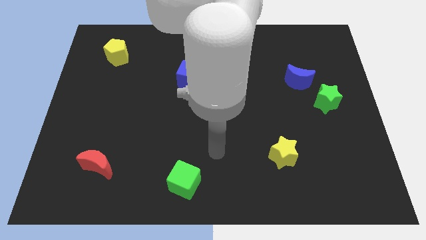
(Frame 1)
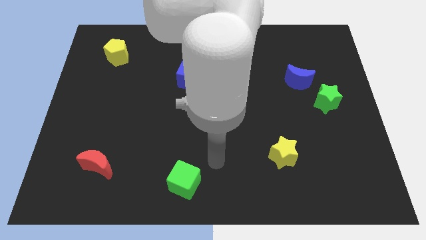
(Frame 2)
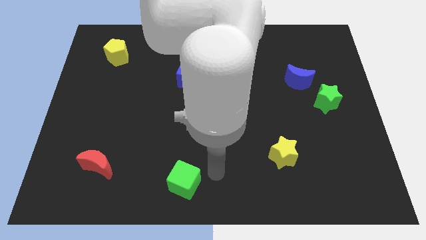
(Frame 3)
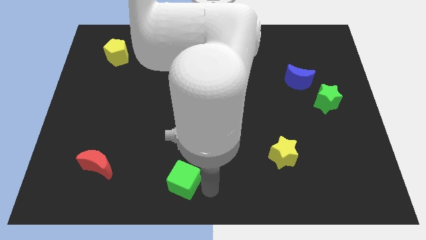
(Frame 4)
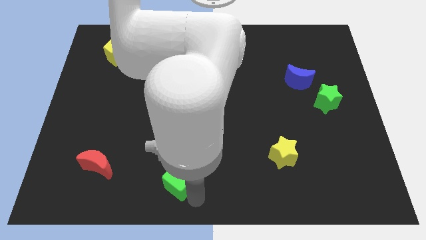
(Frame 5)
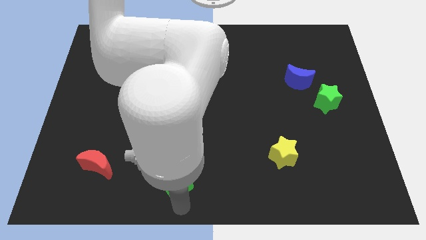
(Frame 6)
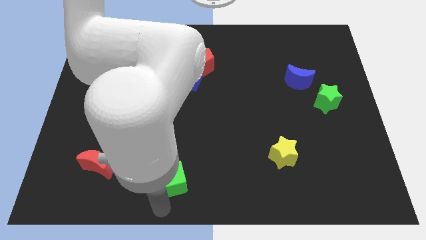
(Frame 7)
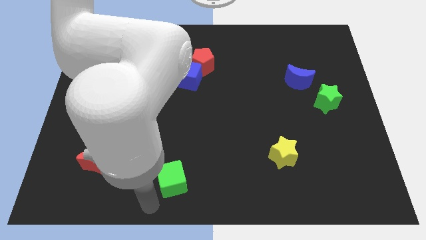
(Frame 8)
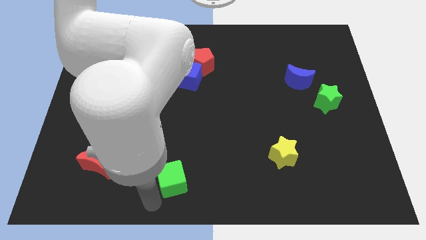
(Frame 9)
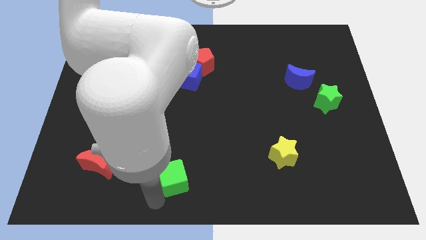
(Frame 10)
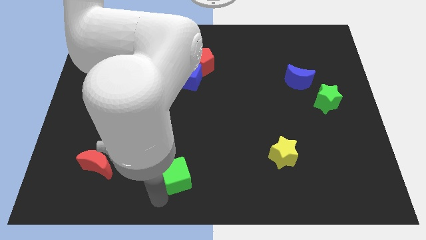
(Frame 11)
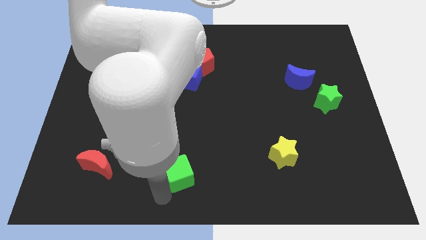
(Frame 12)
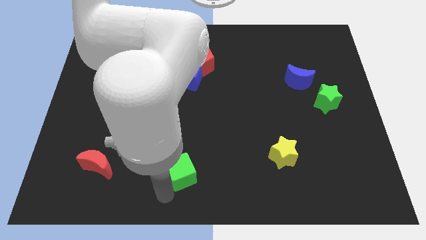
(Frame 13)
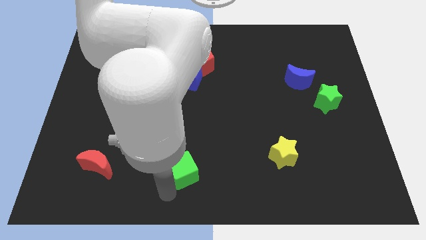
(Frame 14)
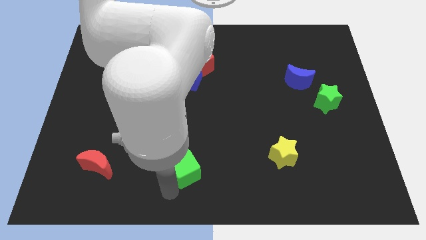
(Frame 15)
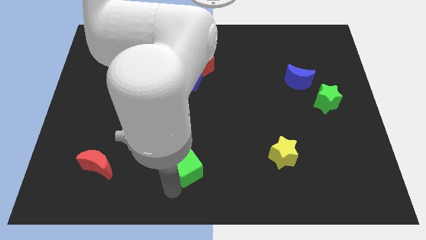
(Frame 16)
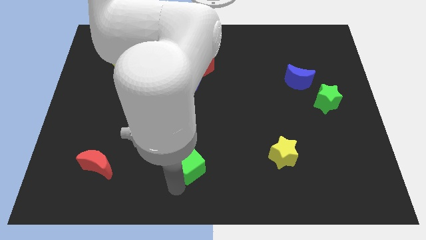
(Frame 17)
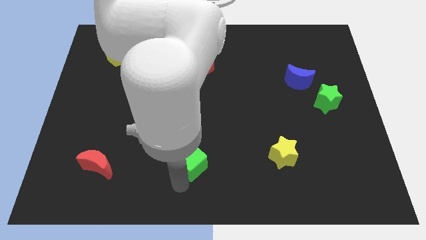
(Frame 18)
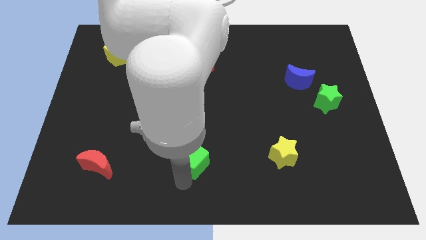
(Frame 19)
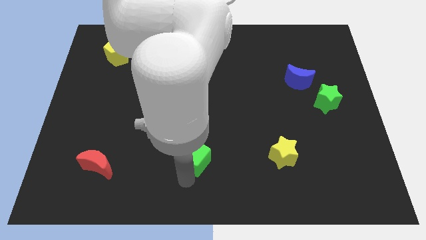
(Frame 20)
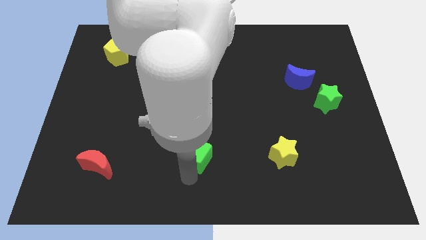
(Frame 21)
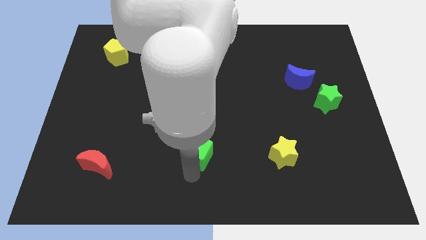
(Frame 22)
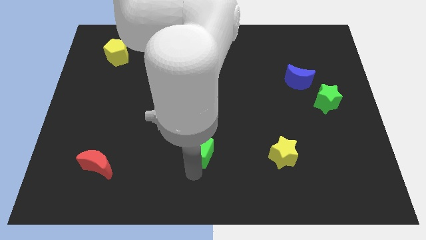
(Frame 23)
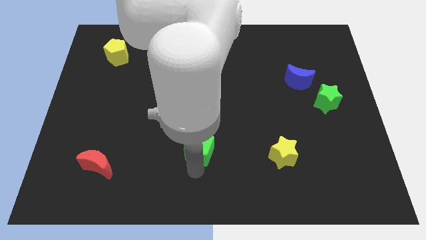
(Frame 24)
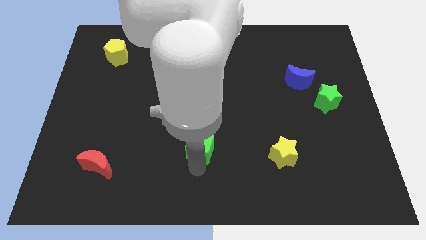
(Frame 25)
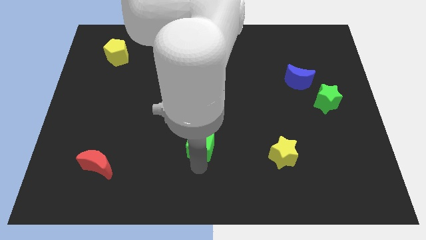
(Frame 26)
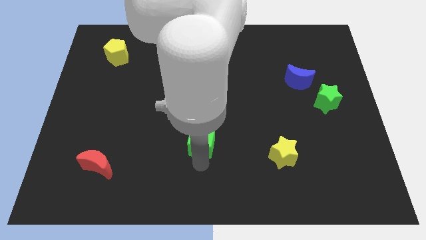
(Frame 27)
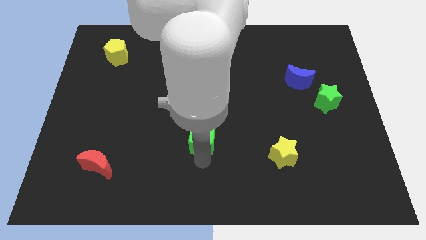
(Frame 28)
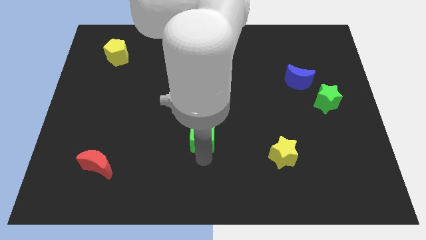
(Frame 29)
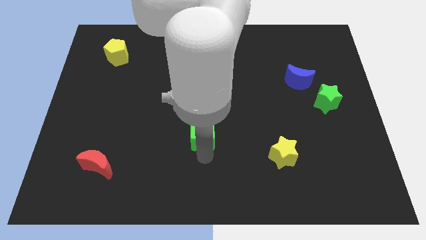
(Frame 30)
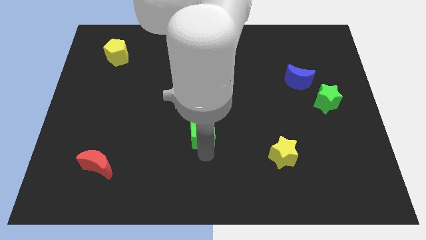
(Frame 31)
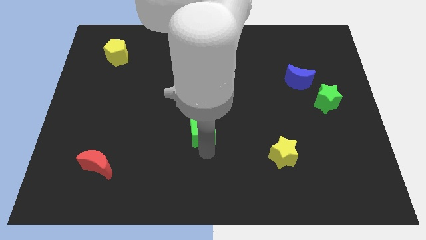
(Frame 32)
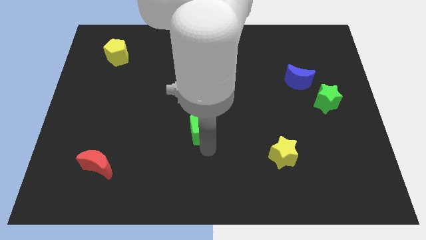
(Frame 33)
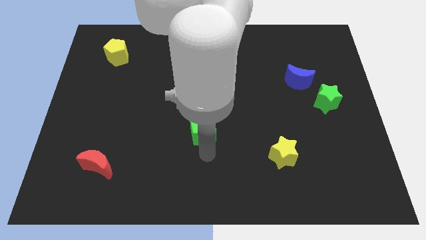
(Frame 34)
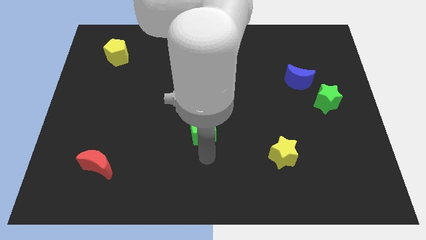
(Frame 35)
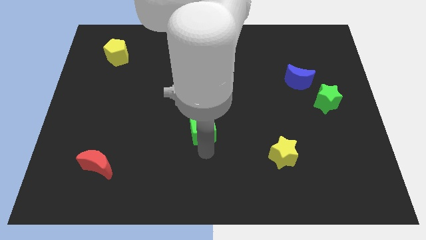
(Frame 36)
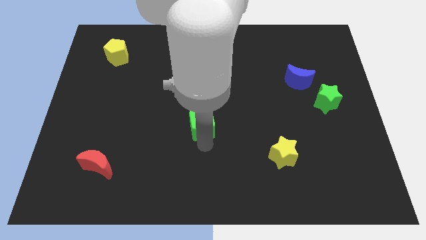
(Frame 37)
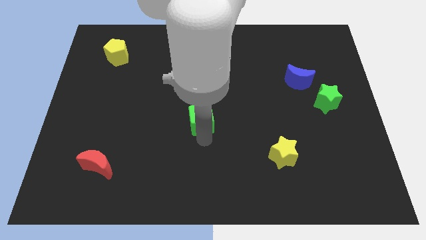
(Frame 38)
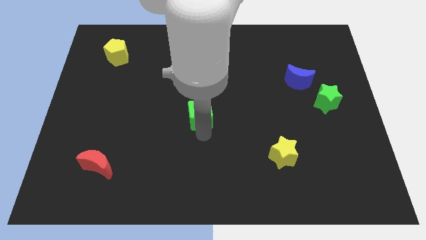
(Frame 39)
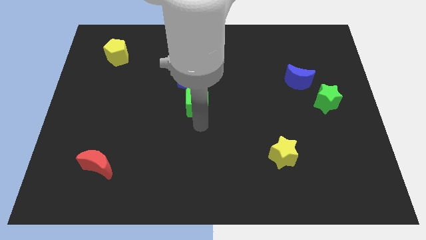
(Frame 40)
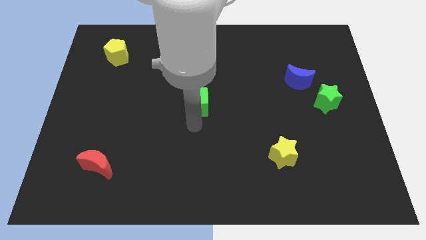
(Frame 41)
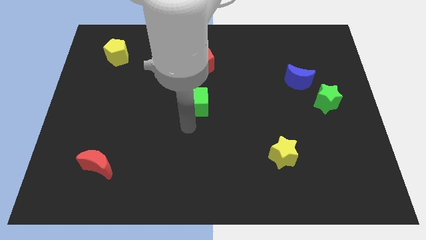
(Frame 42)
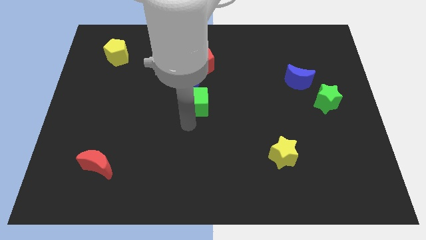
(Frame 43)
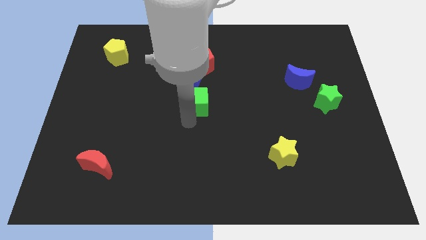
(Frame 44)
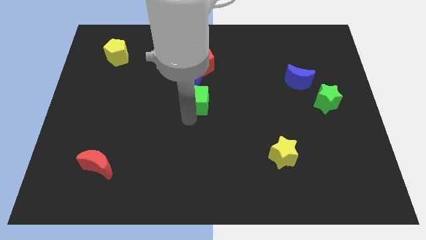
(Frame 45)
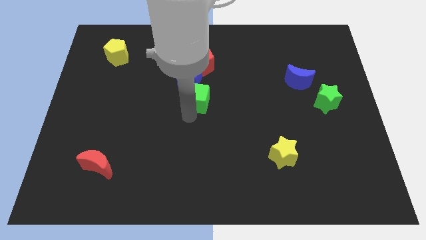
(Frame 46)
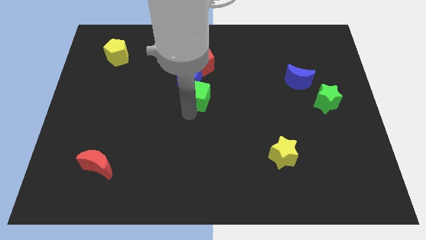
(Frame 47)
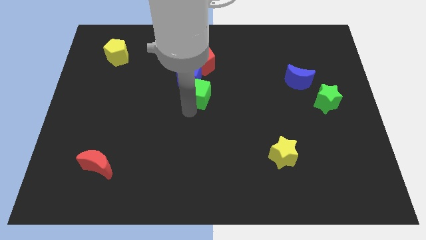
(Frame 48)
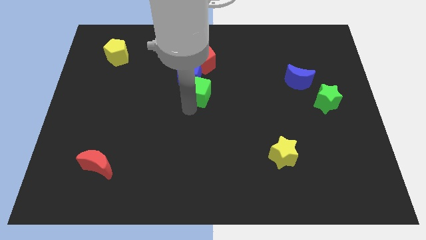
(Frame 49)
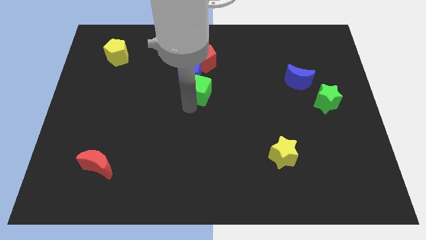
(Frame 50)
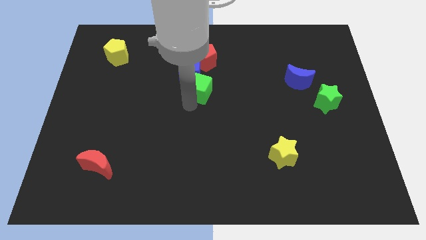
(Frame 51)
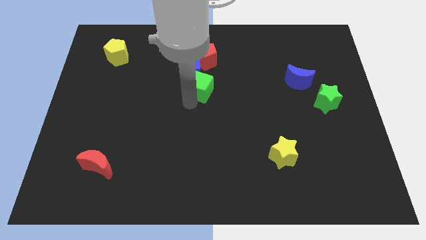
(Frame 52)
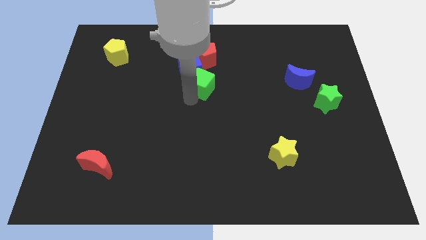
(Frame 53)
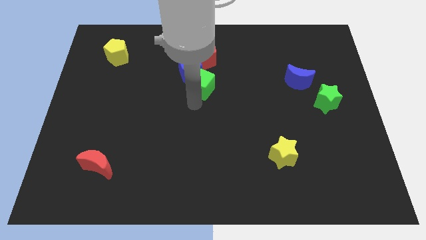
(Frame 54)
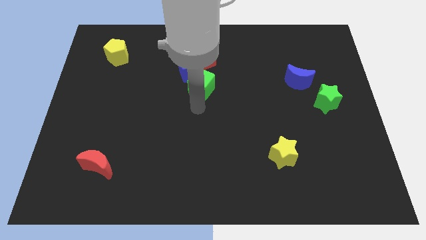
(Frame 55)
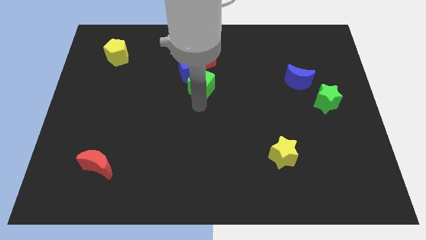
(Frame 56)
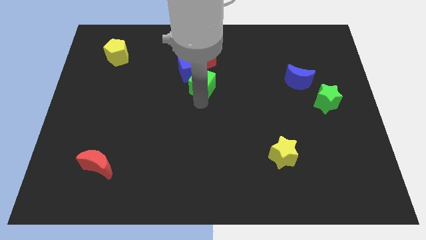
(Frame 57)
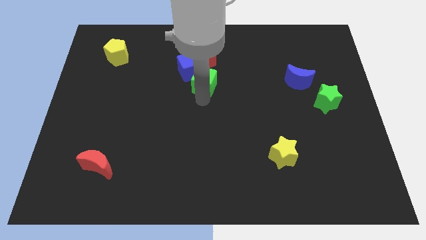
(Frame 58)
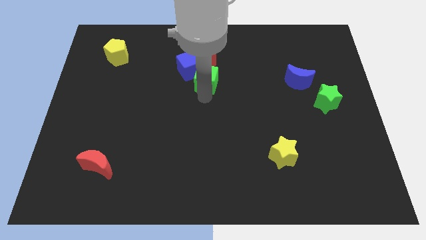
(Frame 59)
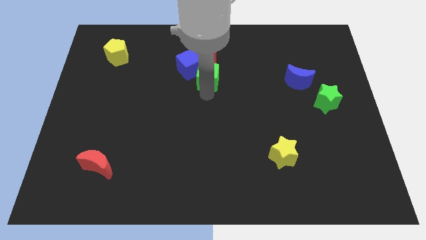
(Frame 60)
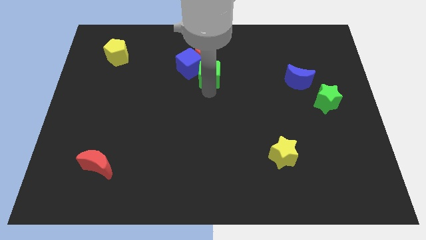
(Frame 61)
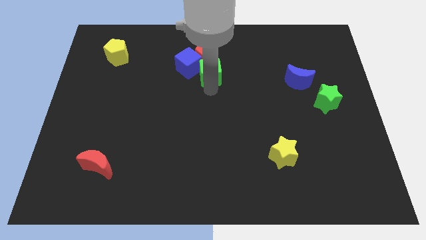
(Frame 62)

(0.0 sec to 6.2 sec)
slide the green cube next to the red pentagon

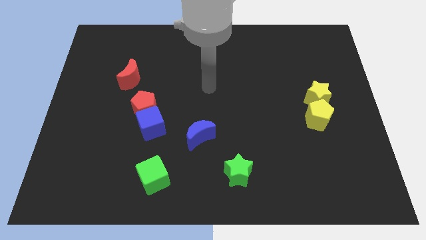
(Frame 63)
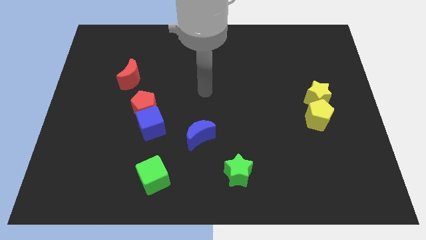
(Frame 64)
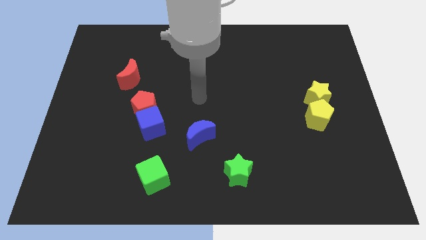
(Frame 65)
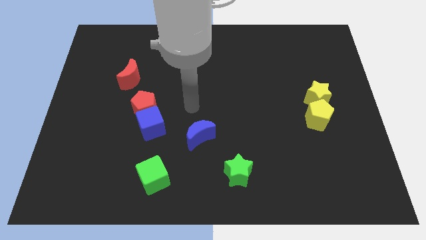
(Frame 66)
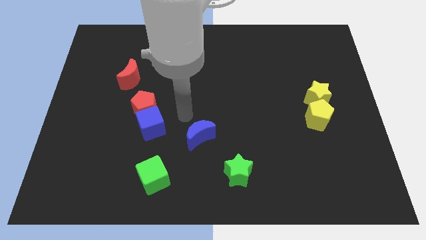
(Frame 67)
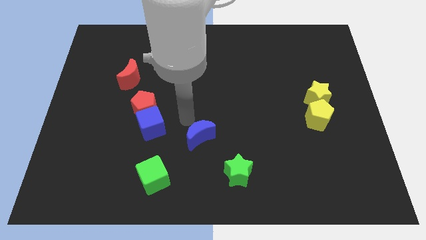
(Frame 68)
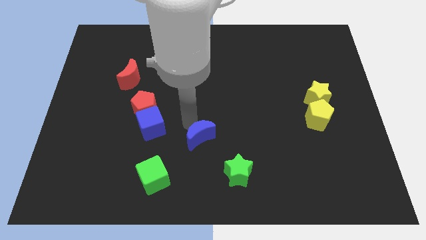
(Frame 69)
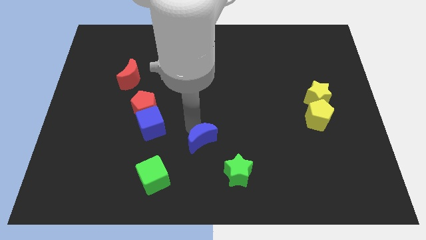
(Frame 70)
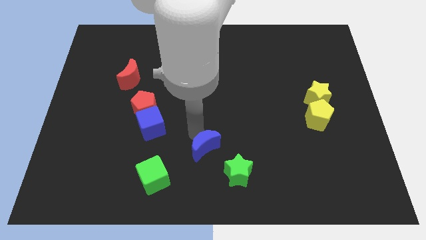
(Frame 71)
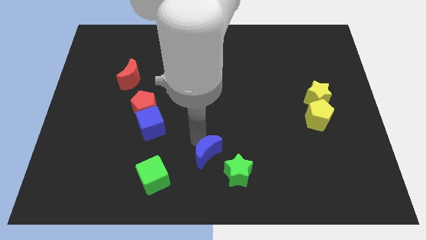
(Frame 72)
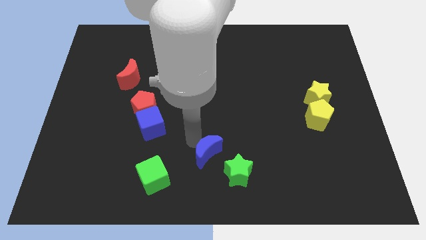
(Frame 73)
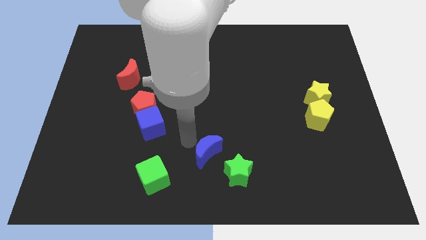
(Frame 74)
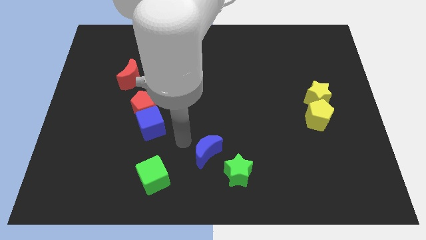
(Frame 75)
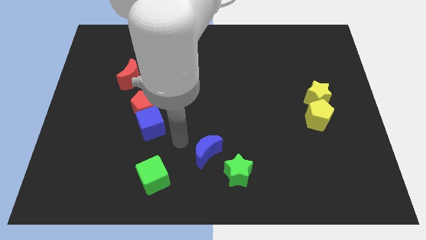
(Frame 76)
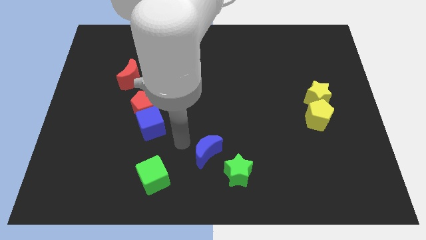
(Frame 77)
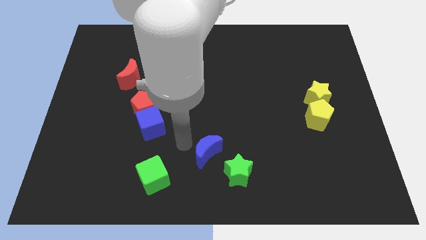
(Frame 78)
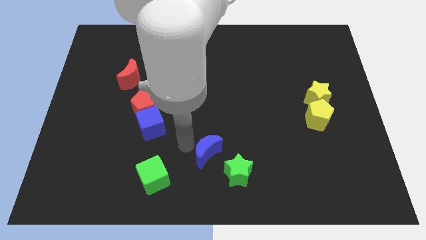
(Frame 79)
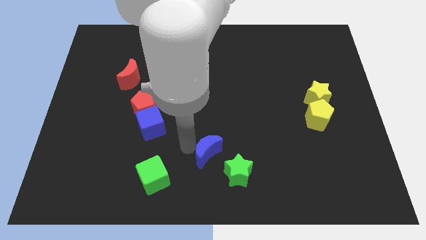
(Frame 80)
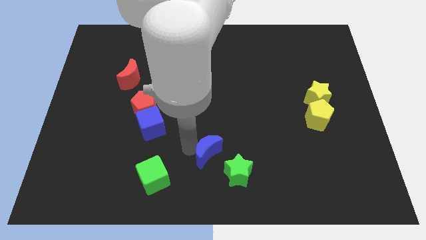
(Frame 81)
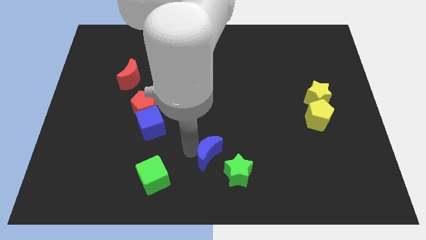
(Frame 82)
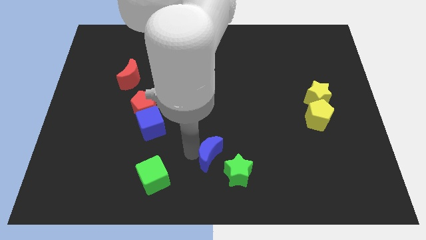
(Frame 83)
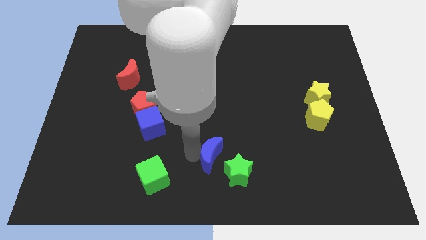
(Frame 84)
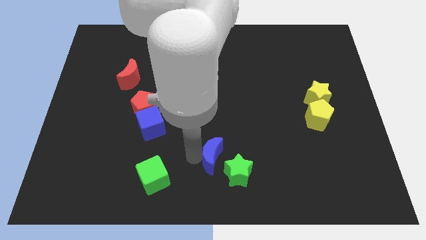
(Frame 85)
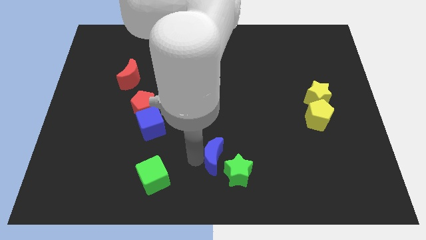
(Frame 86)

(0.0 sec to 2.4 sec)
push the blue moon close to the green star
